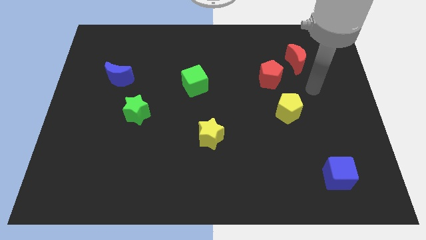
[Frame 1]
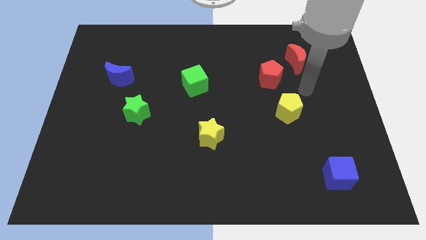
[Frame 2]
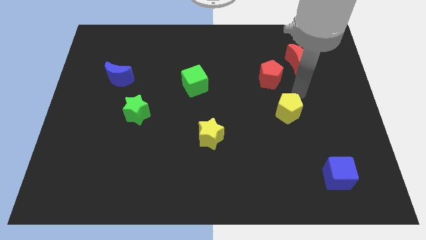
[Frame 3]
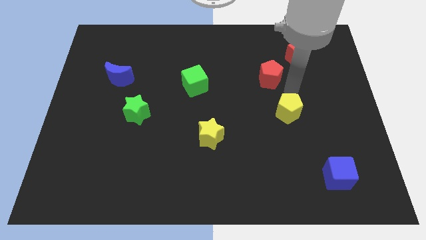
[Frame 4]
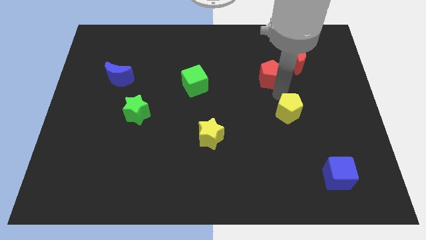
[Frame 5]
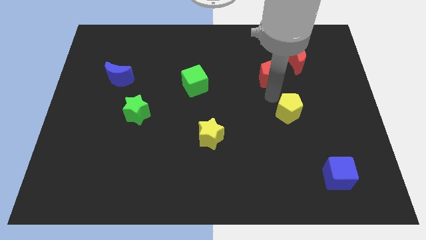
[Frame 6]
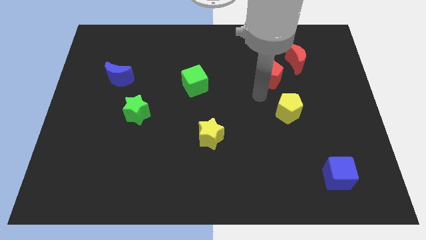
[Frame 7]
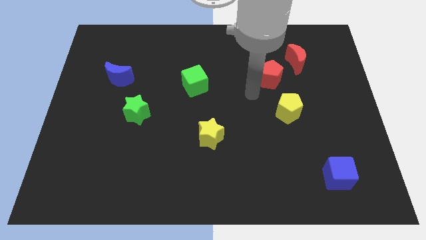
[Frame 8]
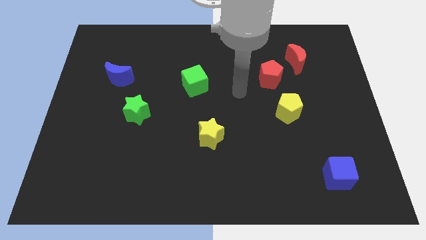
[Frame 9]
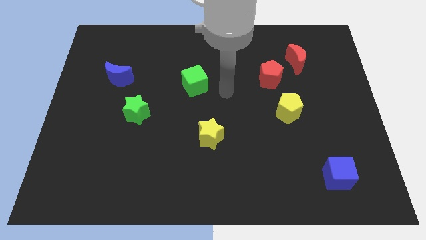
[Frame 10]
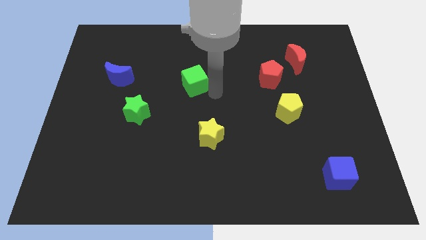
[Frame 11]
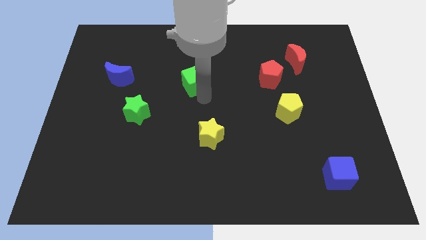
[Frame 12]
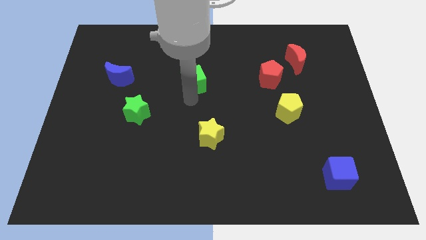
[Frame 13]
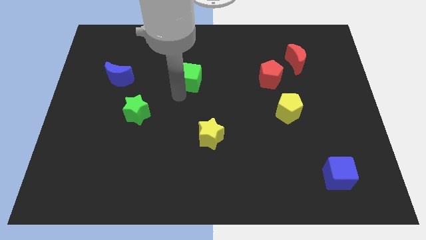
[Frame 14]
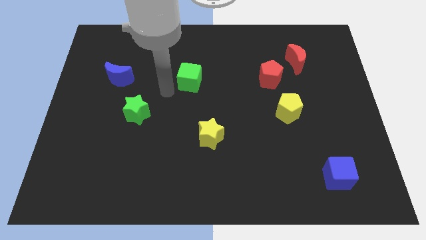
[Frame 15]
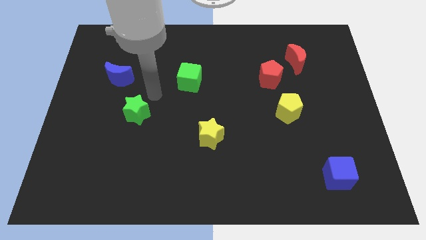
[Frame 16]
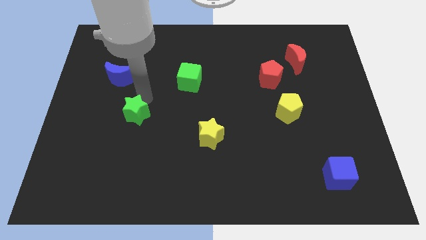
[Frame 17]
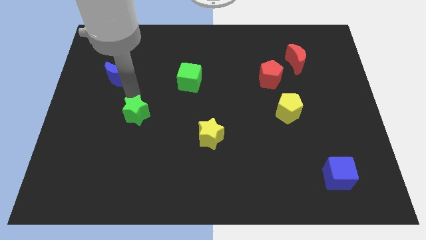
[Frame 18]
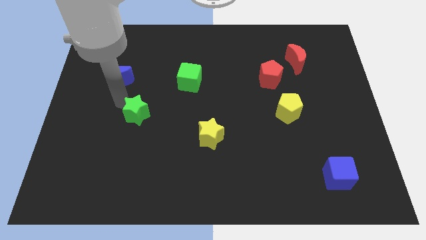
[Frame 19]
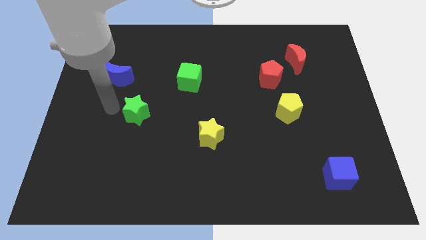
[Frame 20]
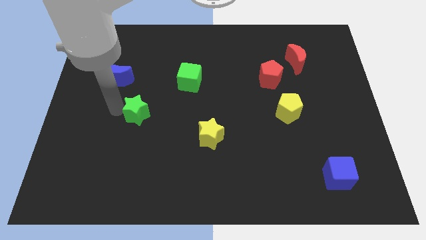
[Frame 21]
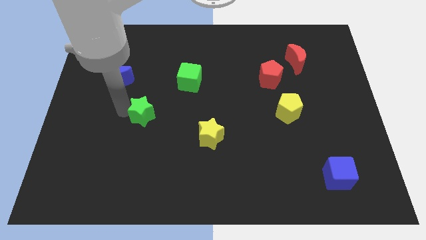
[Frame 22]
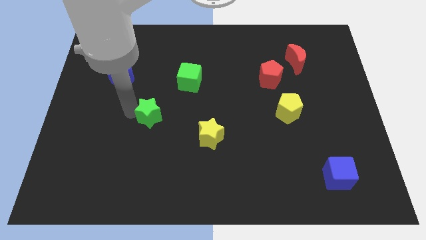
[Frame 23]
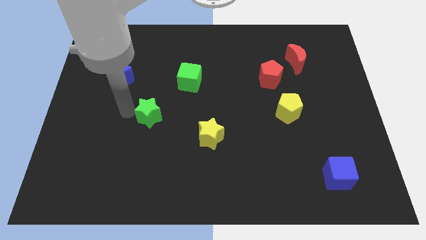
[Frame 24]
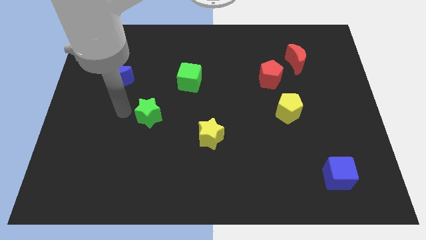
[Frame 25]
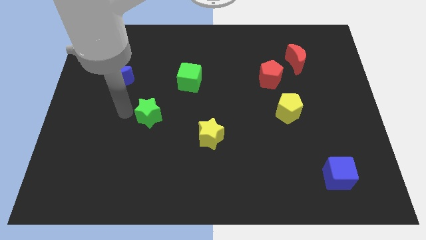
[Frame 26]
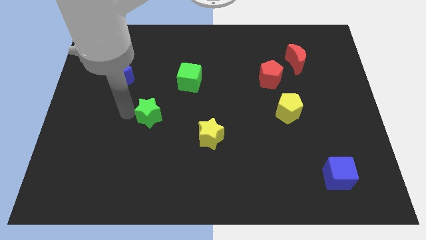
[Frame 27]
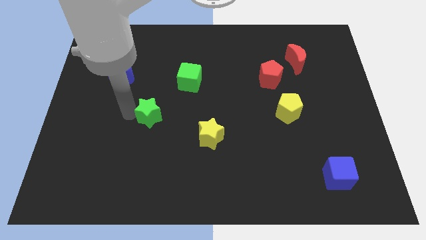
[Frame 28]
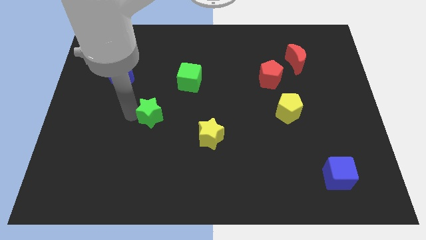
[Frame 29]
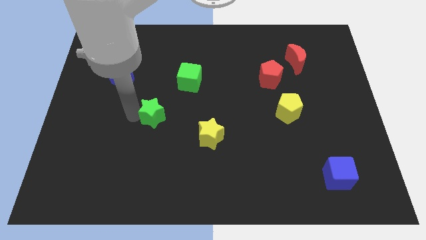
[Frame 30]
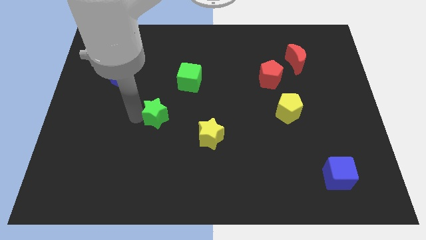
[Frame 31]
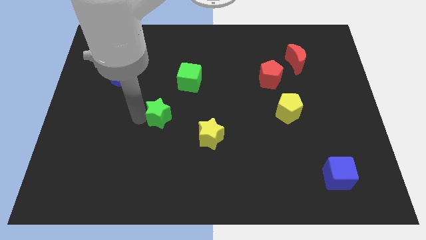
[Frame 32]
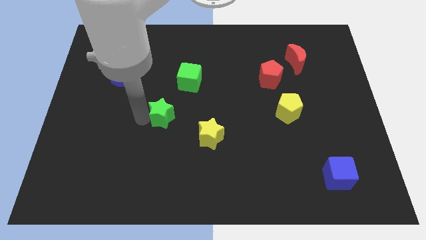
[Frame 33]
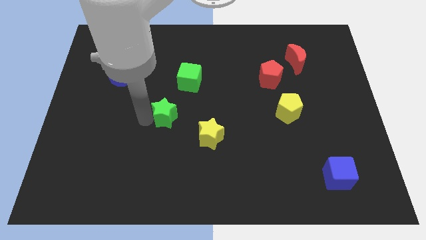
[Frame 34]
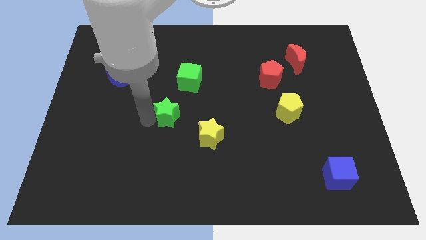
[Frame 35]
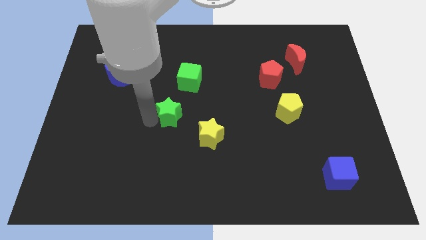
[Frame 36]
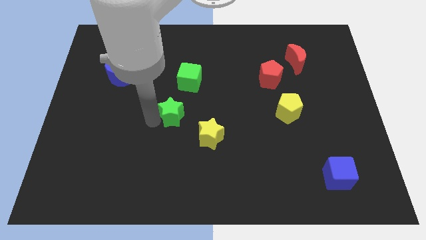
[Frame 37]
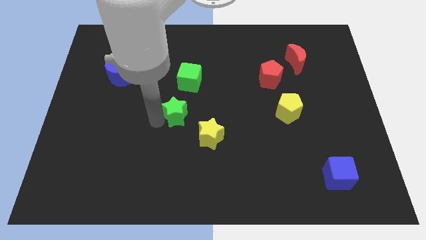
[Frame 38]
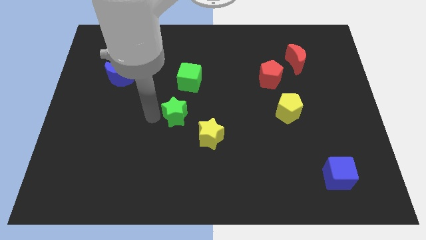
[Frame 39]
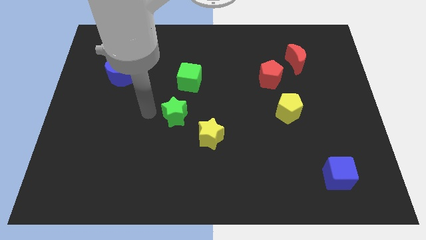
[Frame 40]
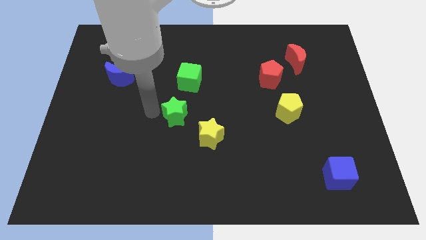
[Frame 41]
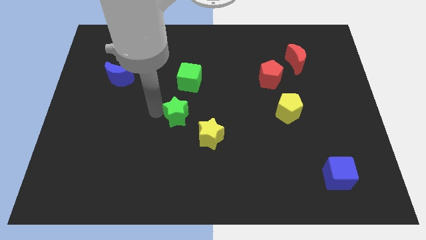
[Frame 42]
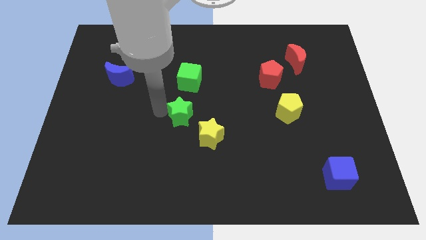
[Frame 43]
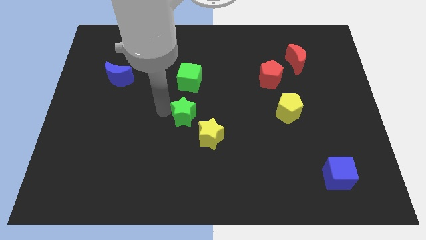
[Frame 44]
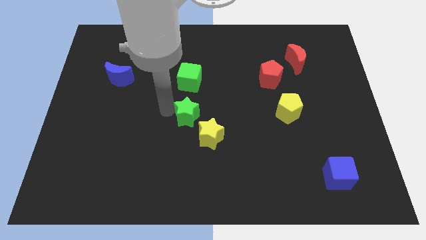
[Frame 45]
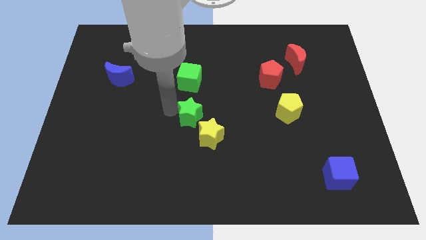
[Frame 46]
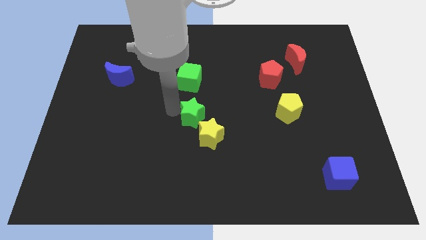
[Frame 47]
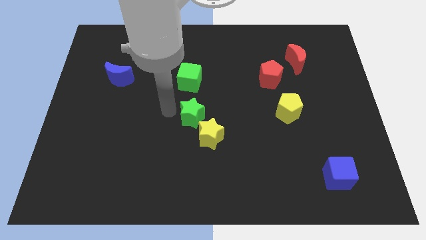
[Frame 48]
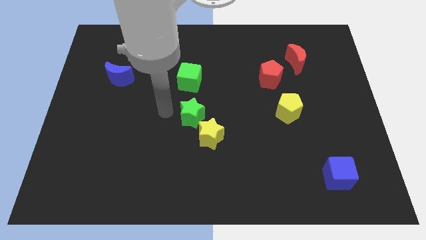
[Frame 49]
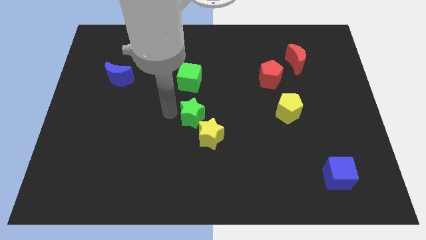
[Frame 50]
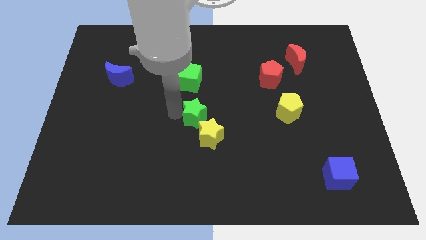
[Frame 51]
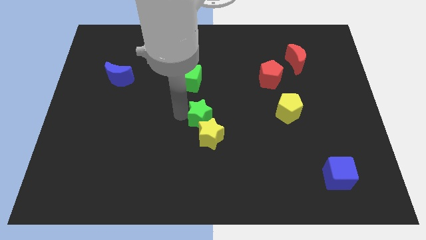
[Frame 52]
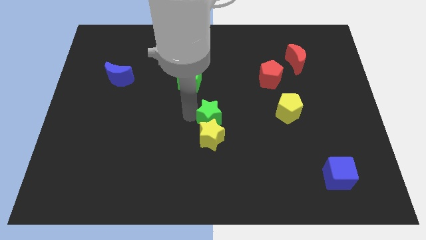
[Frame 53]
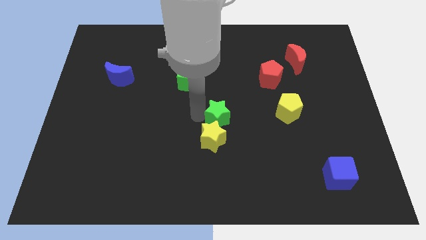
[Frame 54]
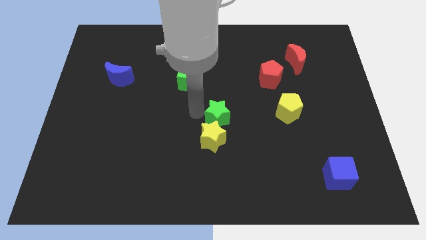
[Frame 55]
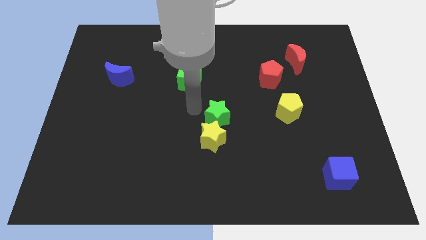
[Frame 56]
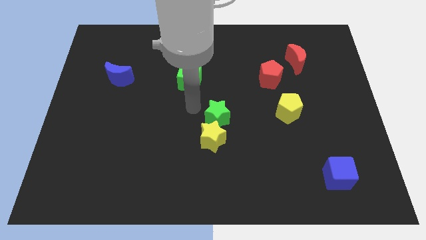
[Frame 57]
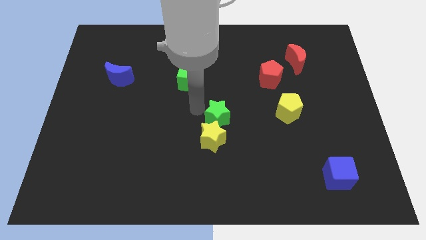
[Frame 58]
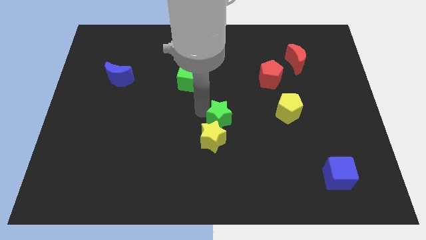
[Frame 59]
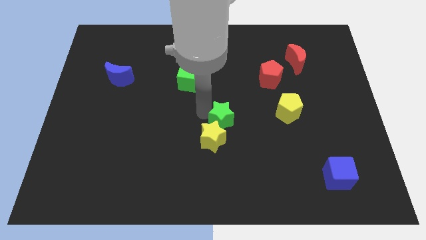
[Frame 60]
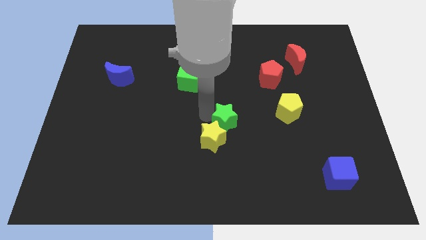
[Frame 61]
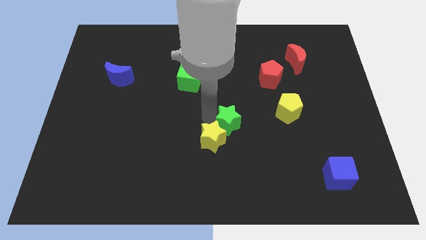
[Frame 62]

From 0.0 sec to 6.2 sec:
put the green star to the right side of the yellow star

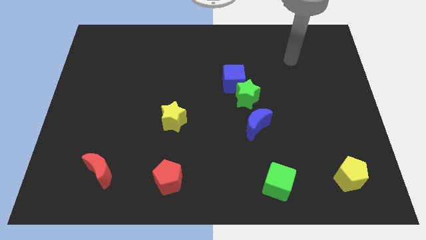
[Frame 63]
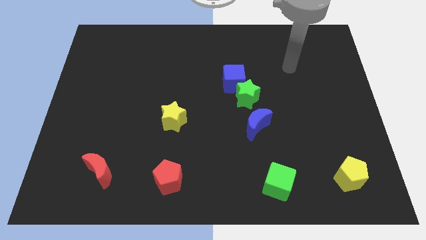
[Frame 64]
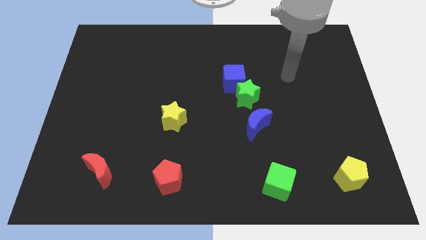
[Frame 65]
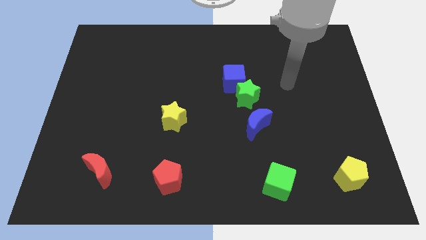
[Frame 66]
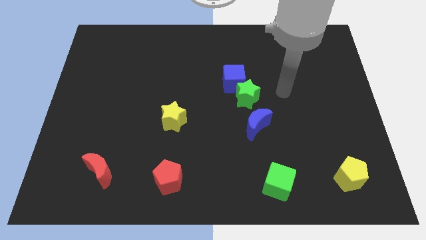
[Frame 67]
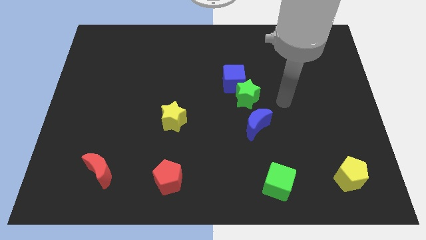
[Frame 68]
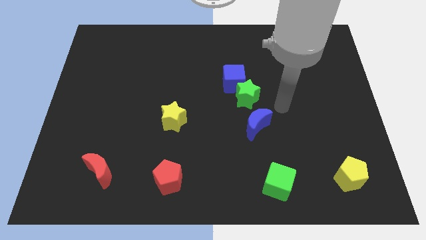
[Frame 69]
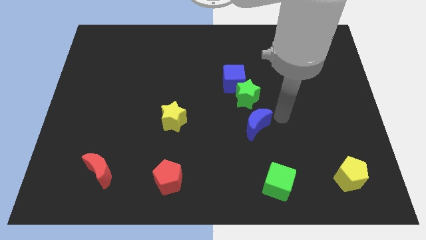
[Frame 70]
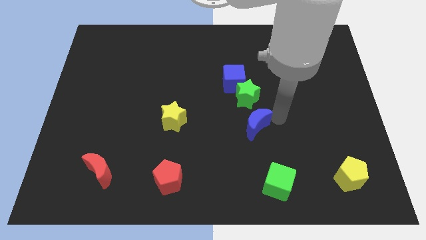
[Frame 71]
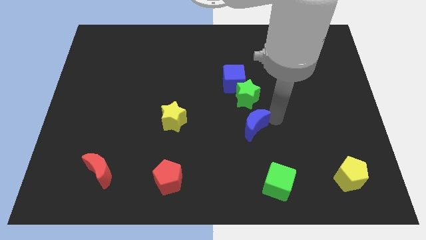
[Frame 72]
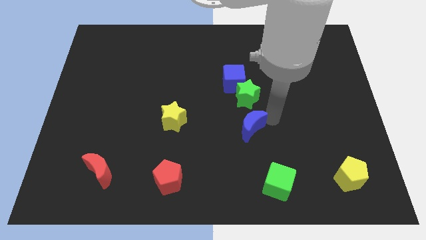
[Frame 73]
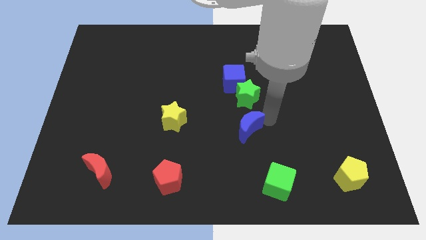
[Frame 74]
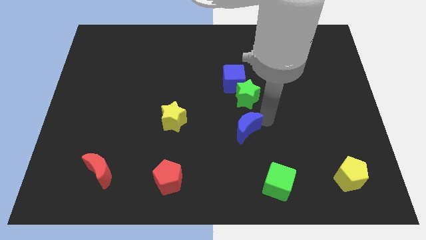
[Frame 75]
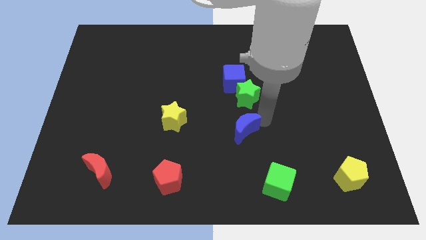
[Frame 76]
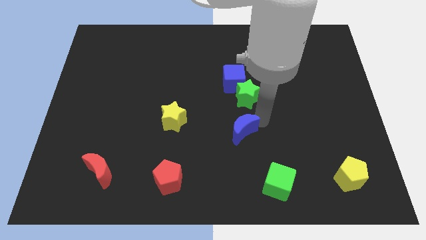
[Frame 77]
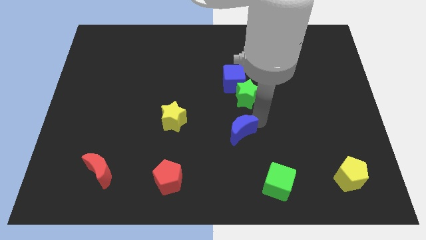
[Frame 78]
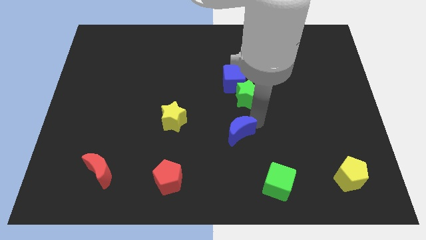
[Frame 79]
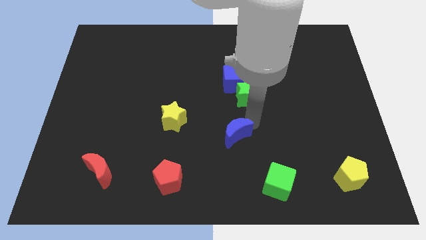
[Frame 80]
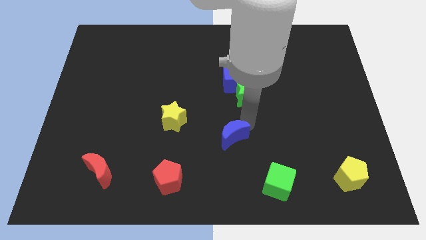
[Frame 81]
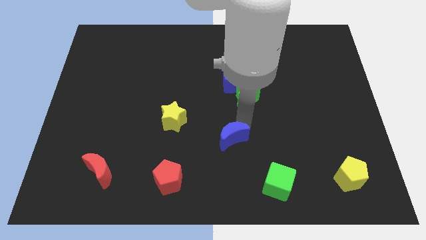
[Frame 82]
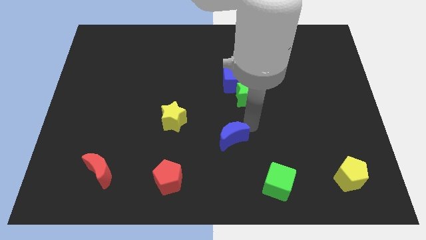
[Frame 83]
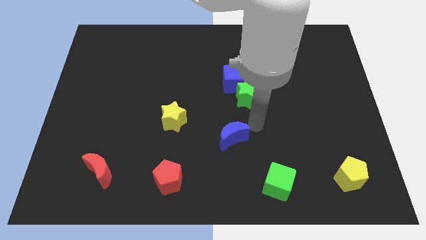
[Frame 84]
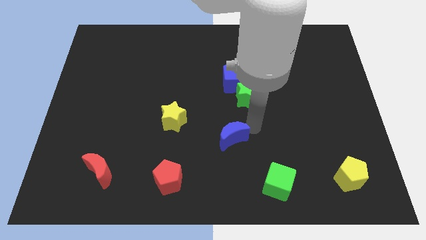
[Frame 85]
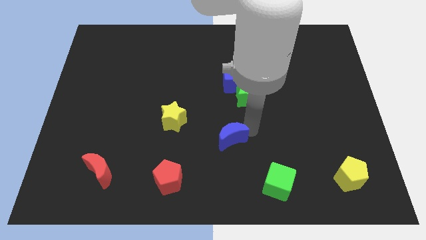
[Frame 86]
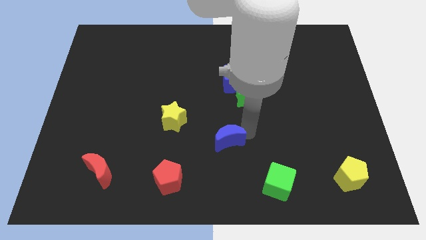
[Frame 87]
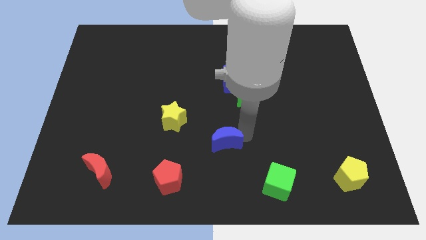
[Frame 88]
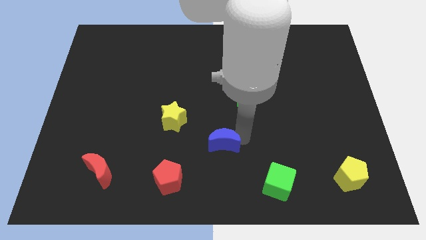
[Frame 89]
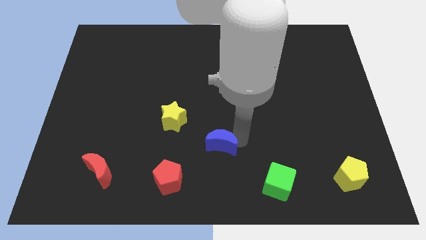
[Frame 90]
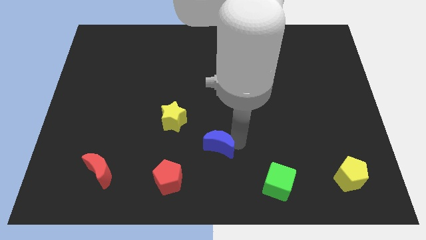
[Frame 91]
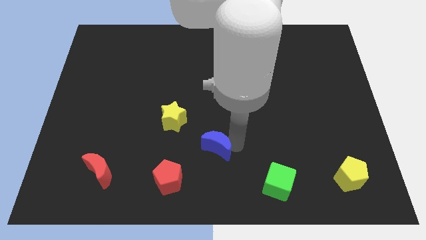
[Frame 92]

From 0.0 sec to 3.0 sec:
slide the blue moon to the top right side of the red pentagon
